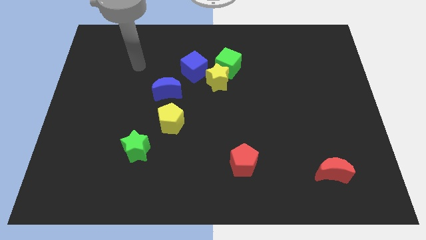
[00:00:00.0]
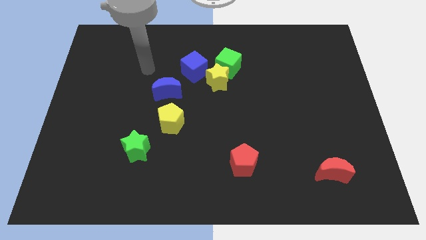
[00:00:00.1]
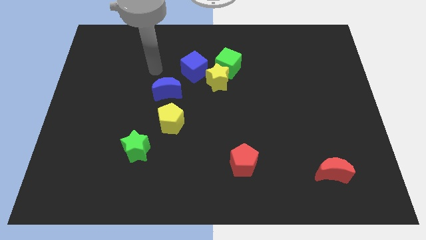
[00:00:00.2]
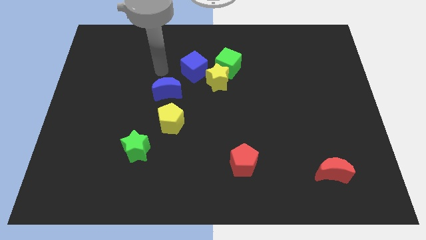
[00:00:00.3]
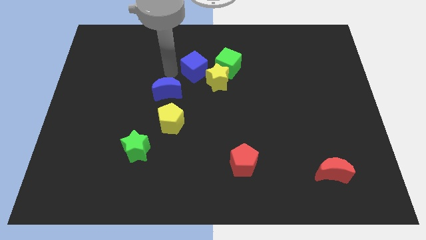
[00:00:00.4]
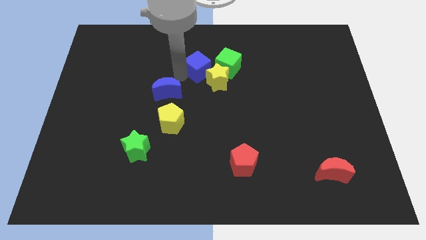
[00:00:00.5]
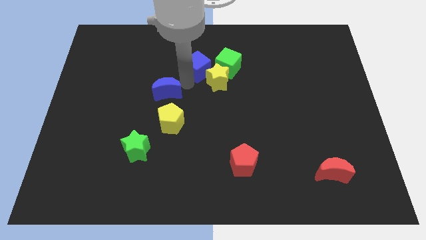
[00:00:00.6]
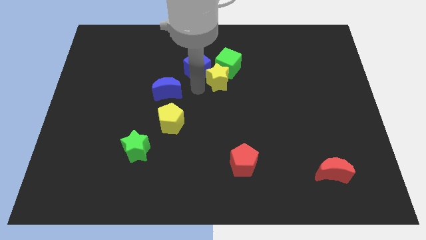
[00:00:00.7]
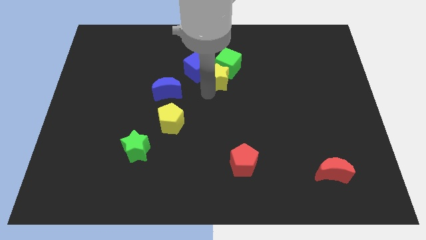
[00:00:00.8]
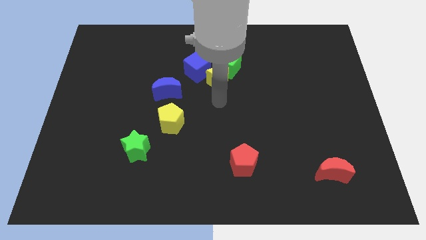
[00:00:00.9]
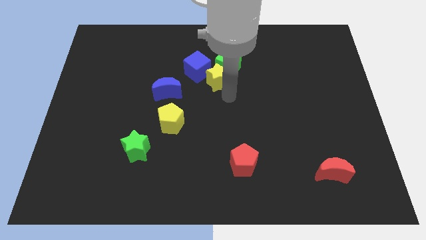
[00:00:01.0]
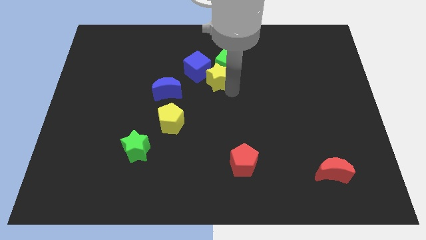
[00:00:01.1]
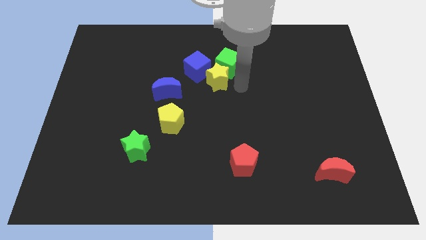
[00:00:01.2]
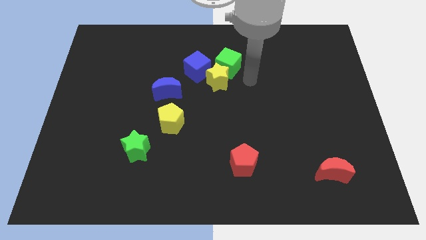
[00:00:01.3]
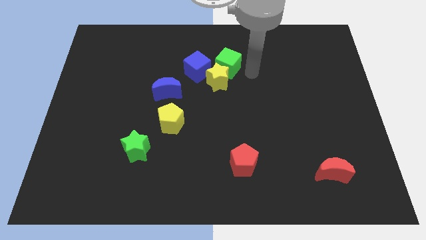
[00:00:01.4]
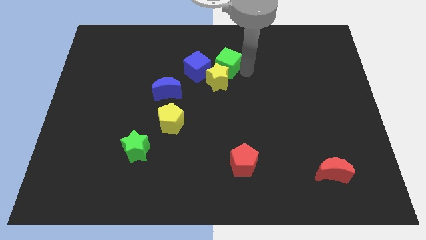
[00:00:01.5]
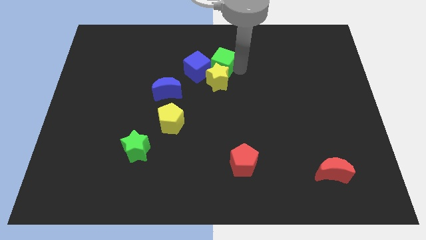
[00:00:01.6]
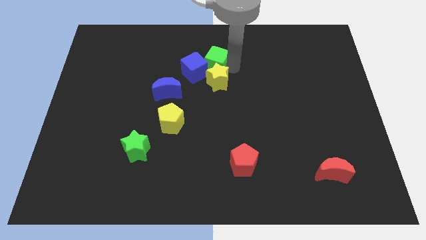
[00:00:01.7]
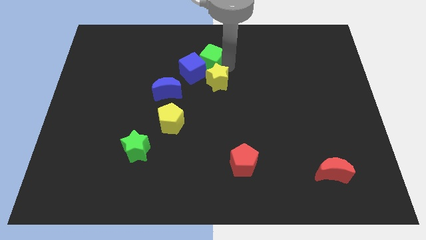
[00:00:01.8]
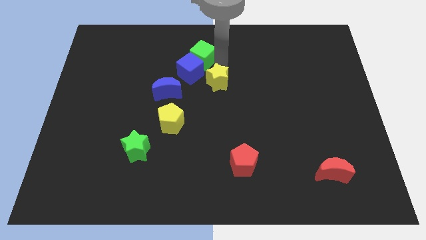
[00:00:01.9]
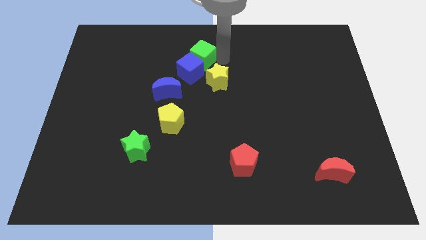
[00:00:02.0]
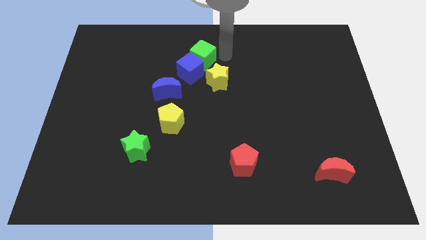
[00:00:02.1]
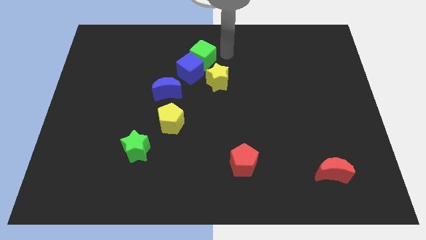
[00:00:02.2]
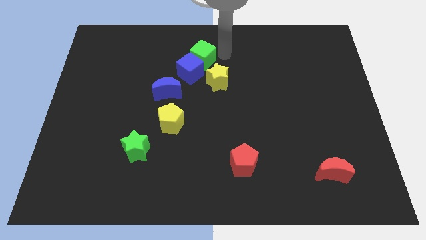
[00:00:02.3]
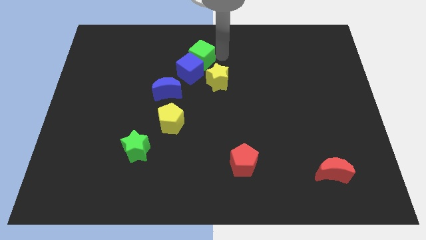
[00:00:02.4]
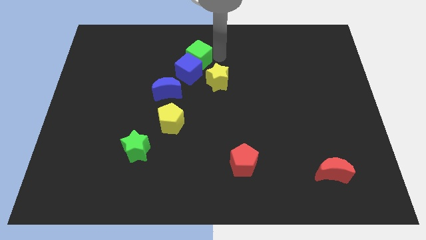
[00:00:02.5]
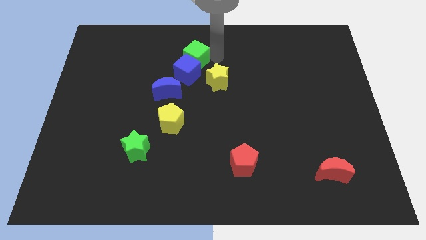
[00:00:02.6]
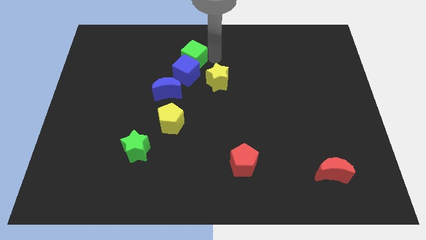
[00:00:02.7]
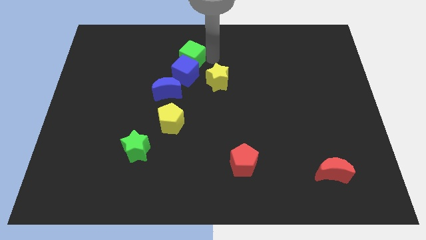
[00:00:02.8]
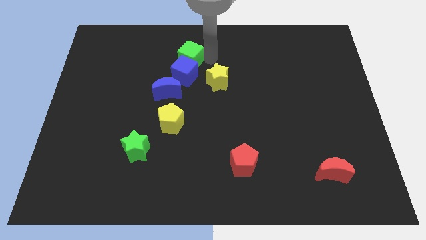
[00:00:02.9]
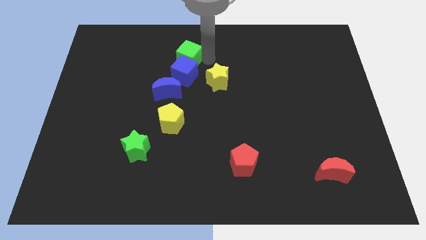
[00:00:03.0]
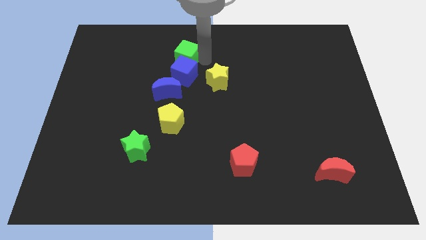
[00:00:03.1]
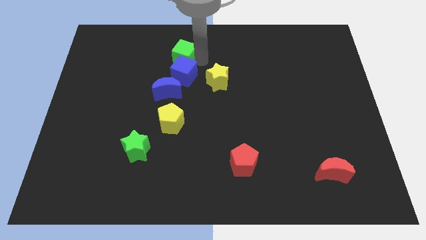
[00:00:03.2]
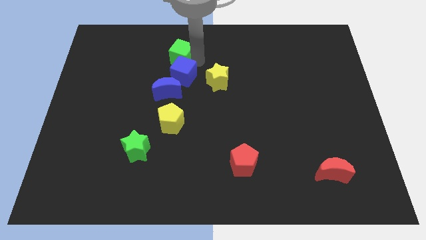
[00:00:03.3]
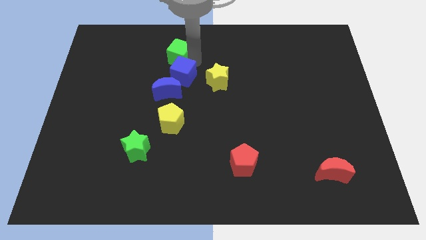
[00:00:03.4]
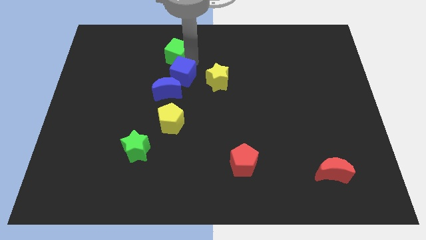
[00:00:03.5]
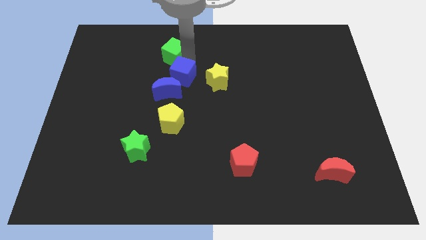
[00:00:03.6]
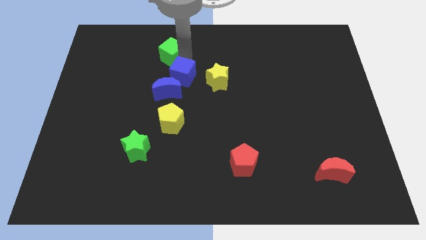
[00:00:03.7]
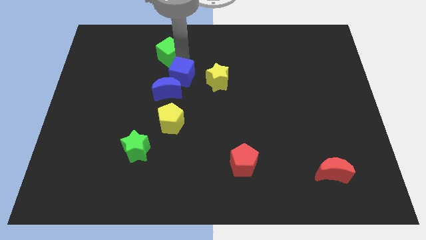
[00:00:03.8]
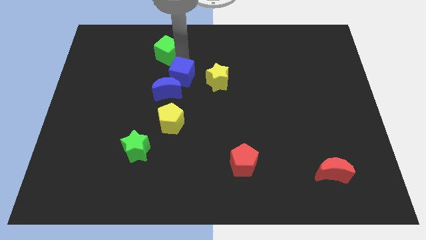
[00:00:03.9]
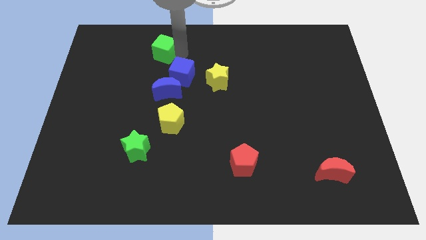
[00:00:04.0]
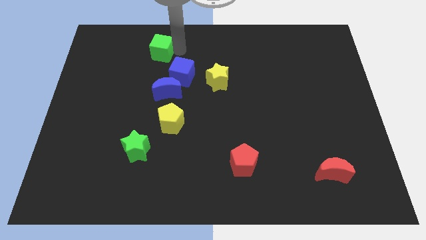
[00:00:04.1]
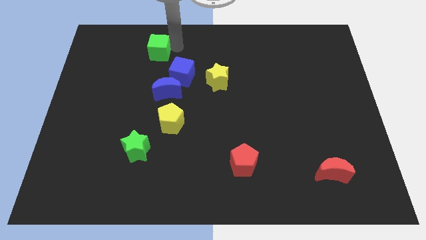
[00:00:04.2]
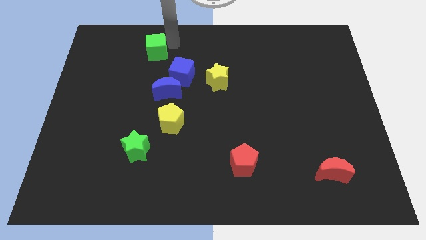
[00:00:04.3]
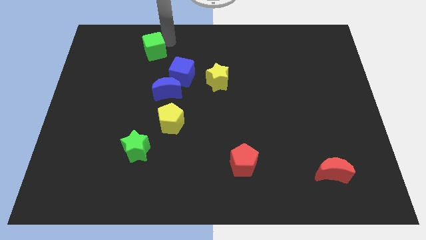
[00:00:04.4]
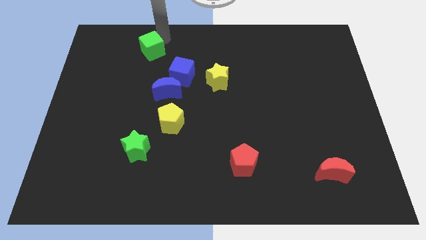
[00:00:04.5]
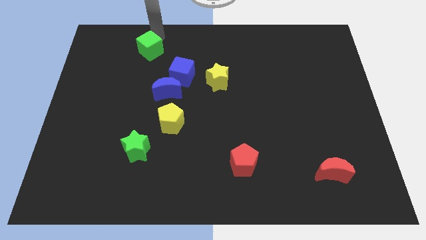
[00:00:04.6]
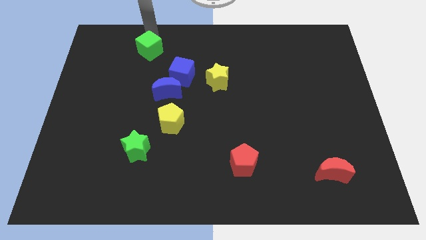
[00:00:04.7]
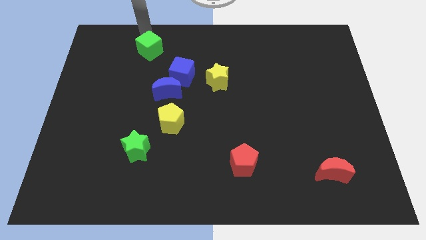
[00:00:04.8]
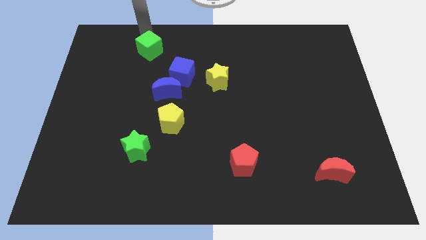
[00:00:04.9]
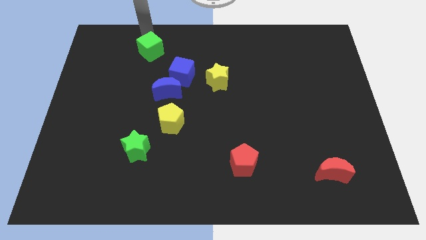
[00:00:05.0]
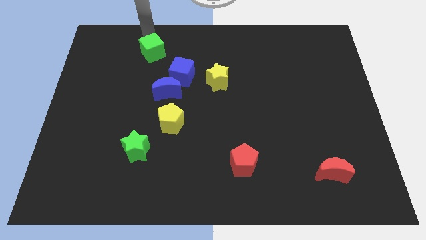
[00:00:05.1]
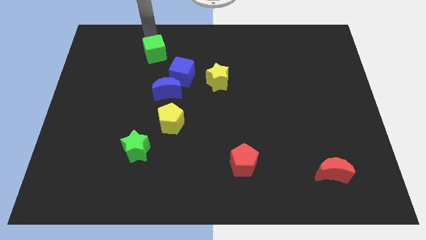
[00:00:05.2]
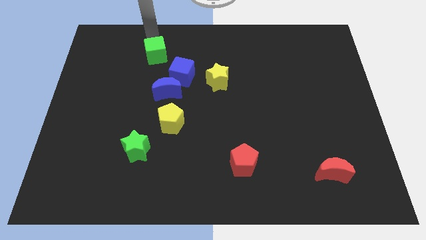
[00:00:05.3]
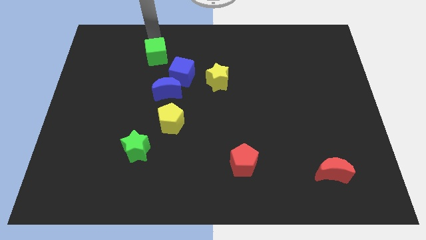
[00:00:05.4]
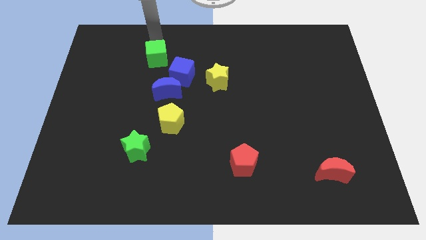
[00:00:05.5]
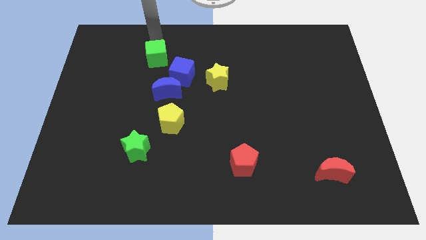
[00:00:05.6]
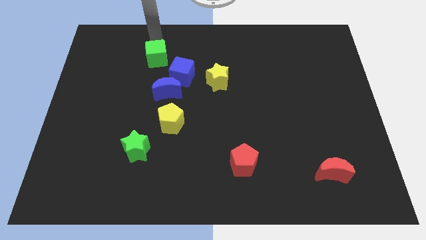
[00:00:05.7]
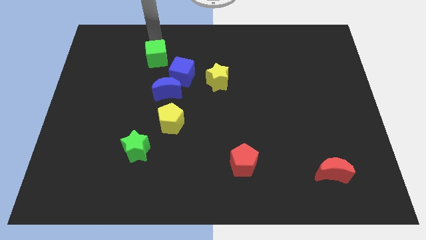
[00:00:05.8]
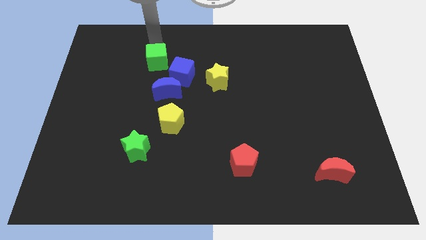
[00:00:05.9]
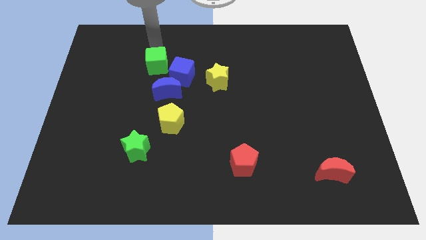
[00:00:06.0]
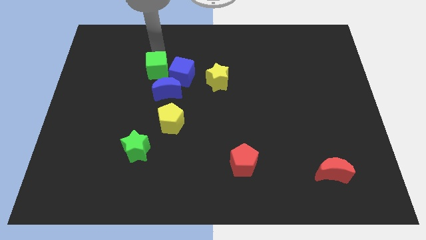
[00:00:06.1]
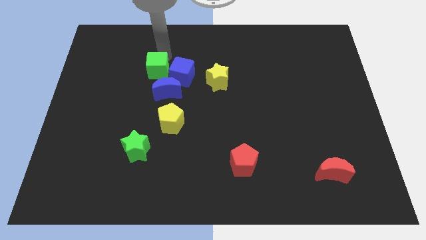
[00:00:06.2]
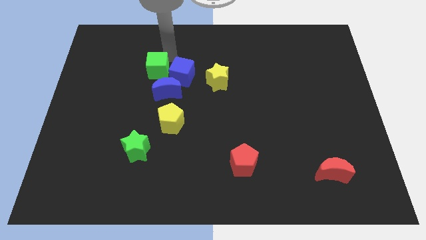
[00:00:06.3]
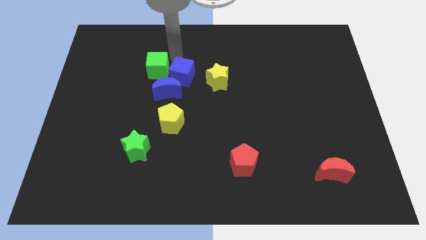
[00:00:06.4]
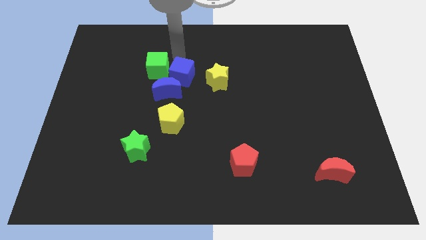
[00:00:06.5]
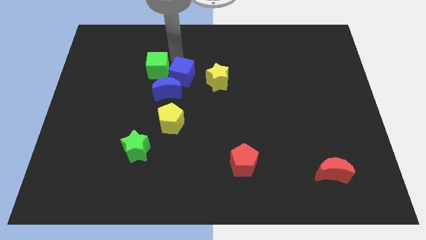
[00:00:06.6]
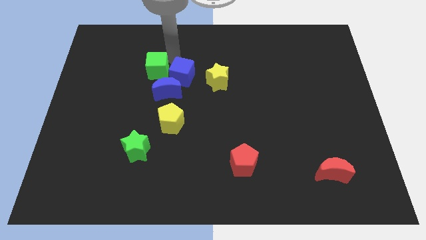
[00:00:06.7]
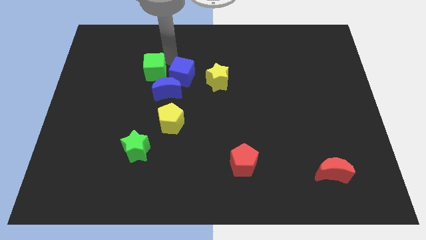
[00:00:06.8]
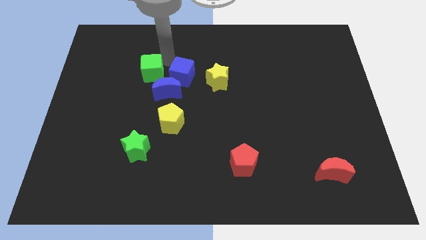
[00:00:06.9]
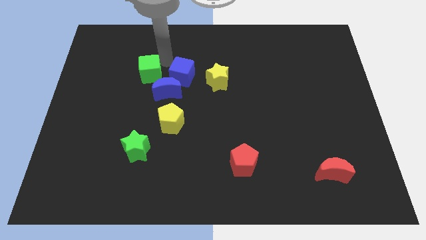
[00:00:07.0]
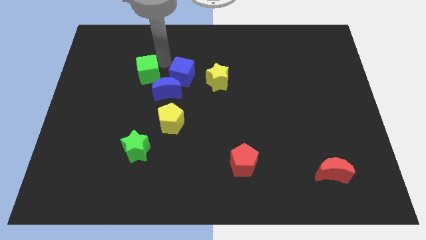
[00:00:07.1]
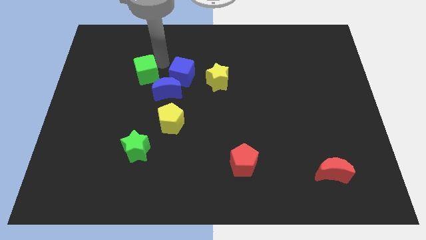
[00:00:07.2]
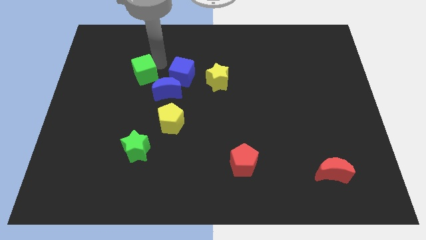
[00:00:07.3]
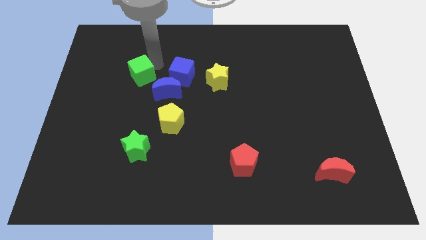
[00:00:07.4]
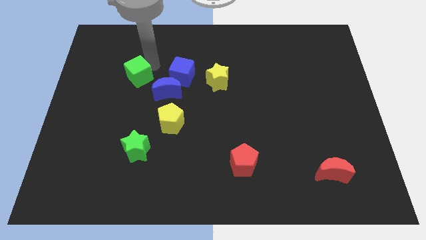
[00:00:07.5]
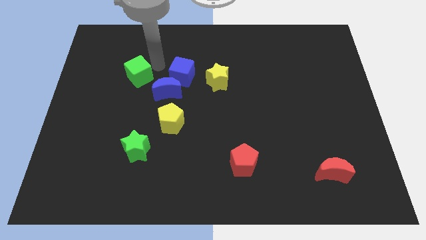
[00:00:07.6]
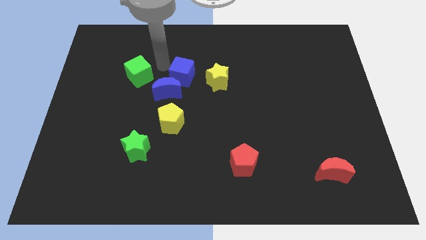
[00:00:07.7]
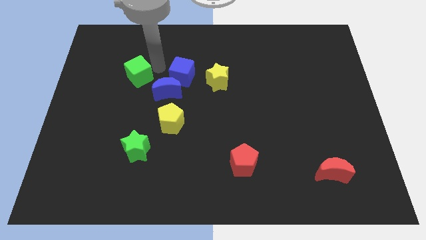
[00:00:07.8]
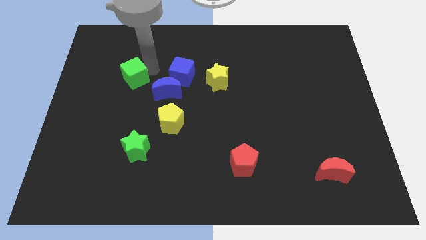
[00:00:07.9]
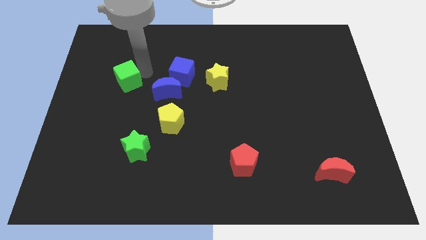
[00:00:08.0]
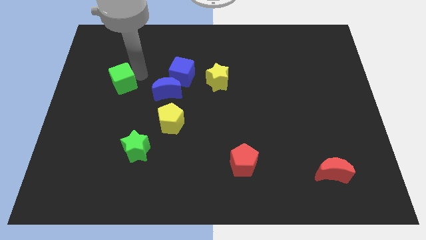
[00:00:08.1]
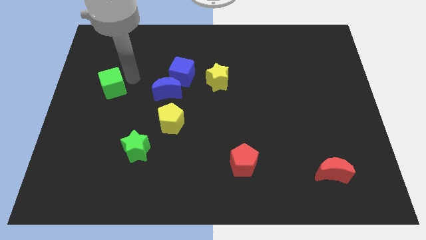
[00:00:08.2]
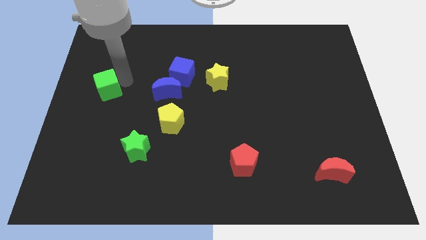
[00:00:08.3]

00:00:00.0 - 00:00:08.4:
put the green cube to the left side of the board
